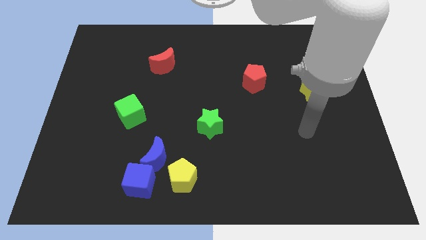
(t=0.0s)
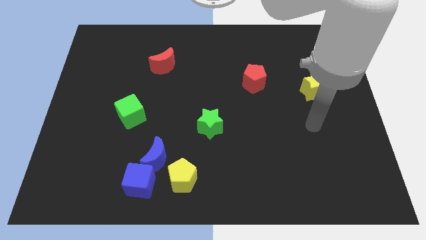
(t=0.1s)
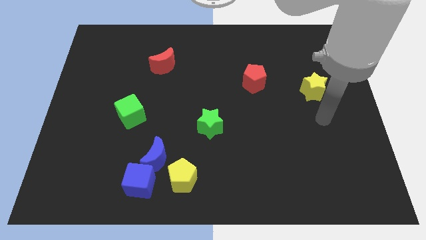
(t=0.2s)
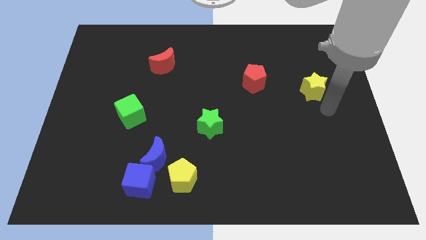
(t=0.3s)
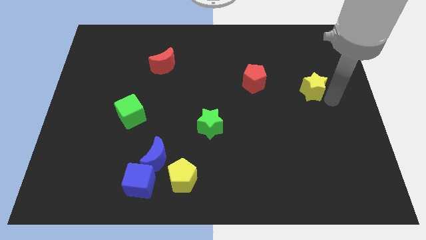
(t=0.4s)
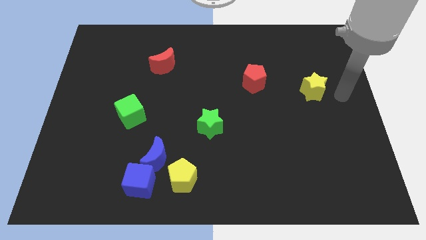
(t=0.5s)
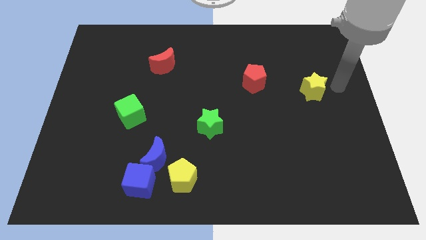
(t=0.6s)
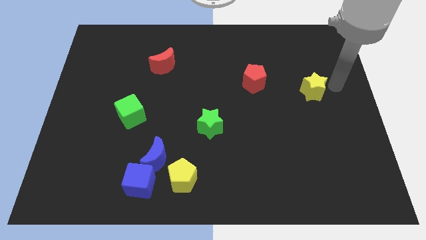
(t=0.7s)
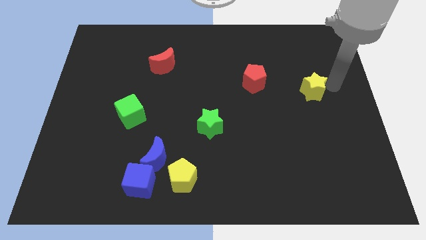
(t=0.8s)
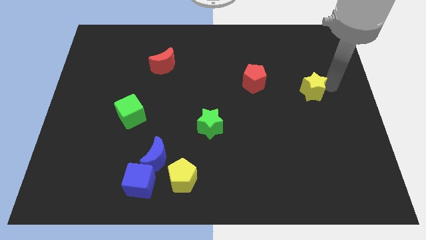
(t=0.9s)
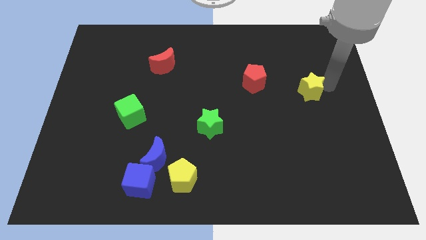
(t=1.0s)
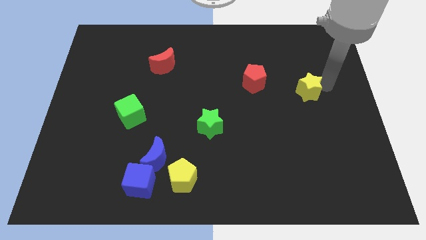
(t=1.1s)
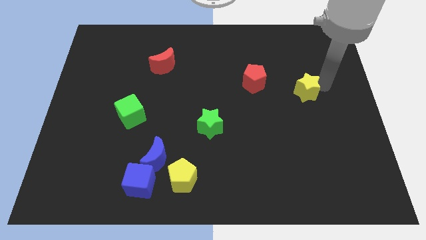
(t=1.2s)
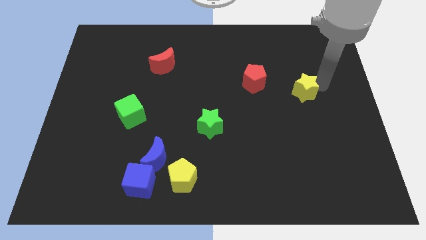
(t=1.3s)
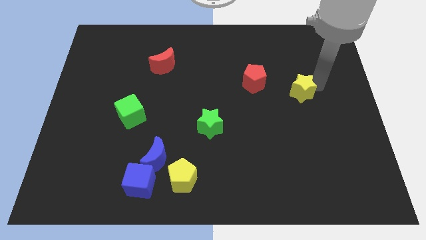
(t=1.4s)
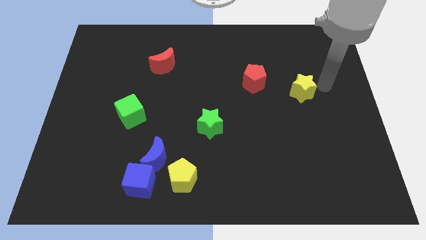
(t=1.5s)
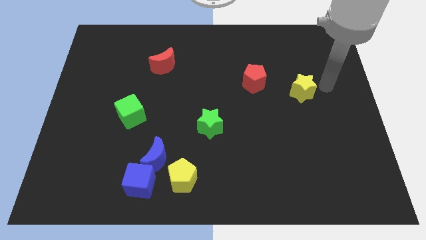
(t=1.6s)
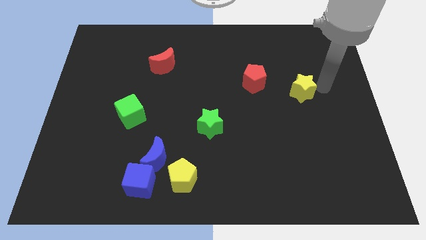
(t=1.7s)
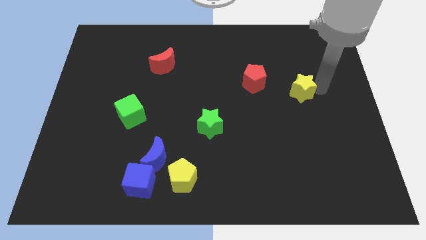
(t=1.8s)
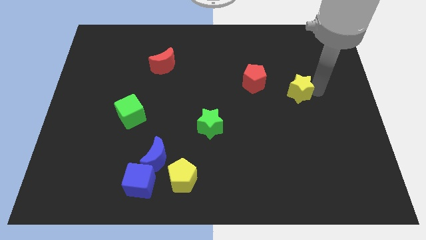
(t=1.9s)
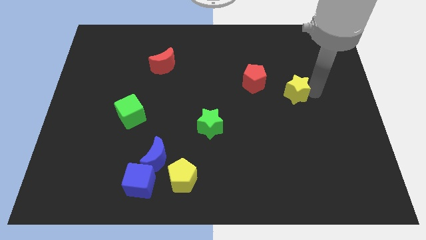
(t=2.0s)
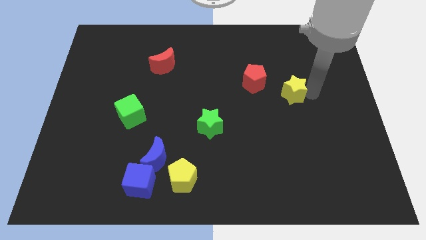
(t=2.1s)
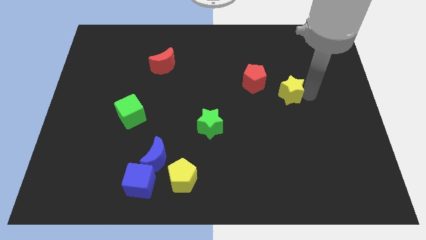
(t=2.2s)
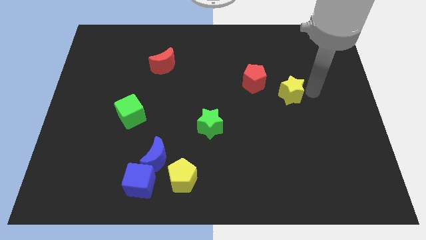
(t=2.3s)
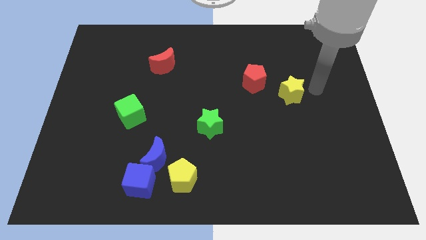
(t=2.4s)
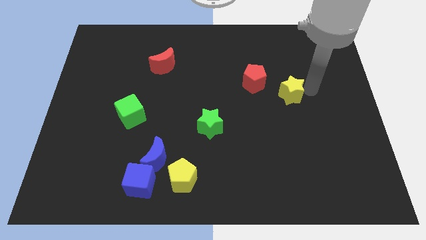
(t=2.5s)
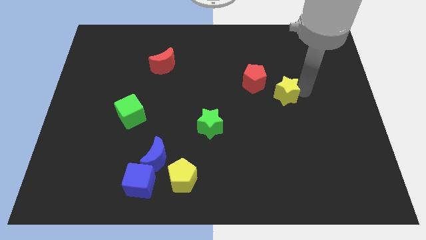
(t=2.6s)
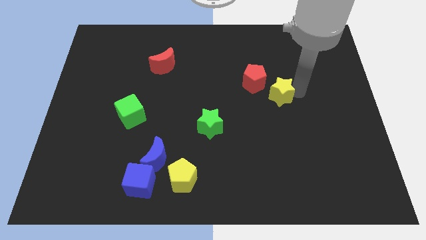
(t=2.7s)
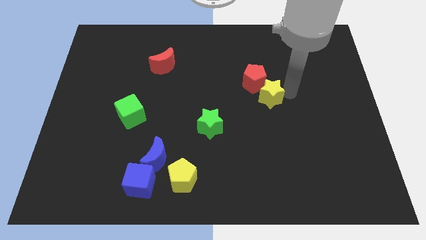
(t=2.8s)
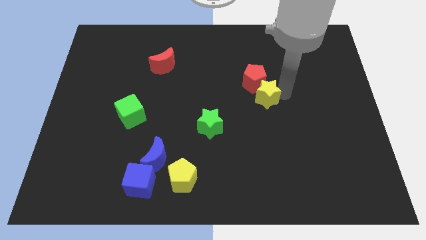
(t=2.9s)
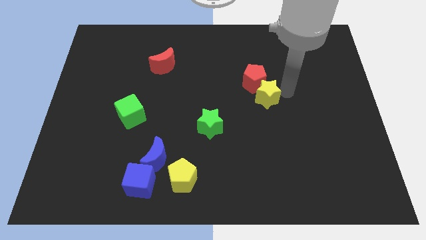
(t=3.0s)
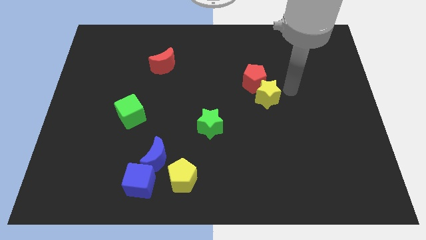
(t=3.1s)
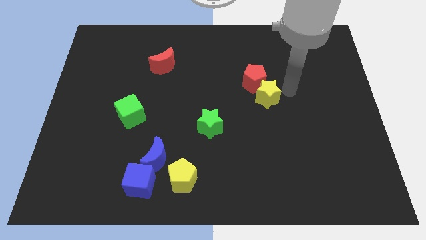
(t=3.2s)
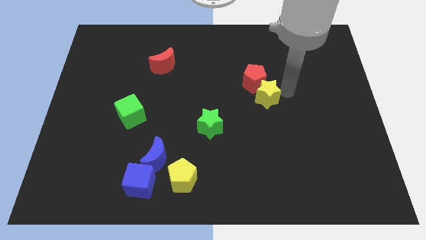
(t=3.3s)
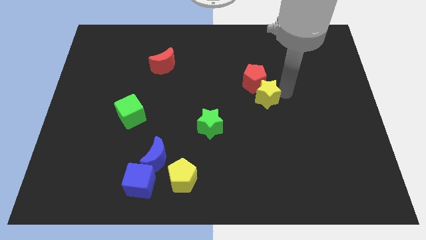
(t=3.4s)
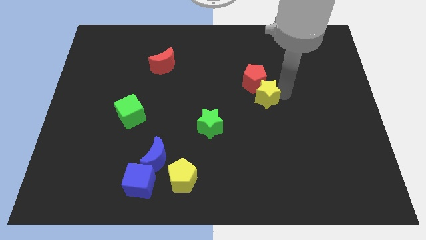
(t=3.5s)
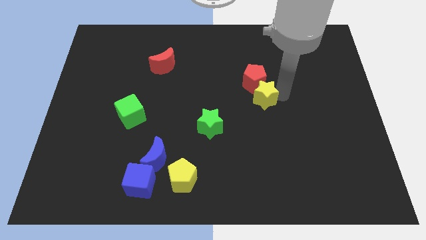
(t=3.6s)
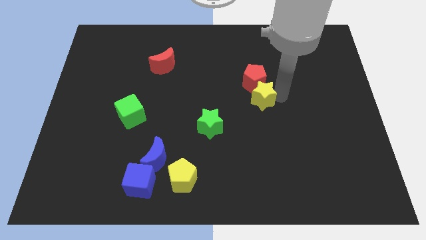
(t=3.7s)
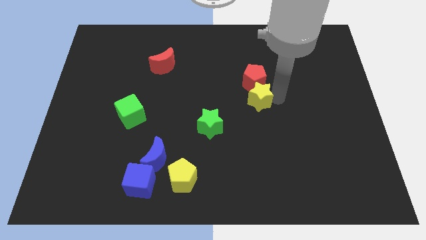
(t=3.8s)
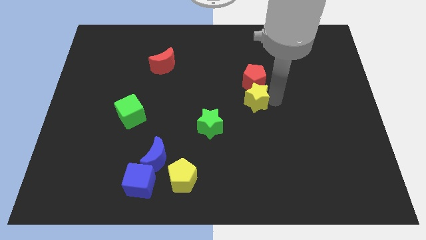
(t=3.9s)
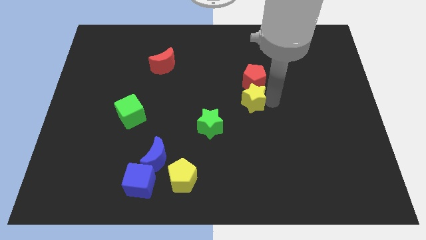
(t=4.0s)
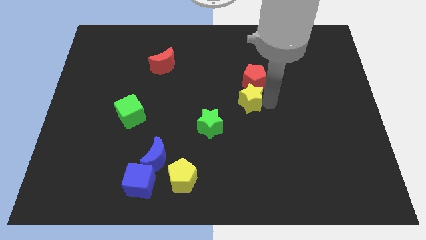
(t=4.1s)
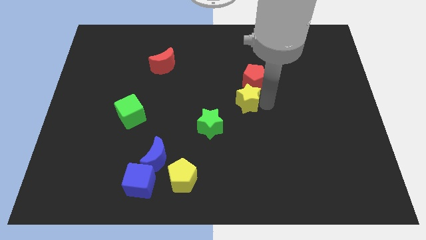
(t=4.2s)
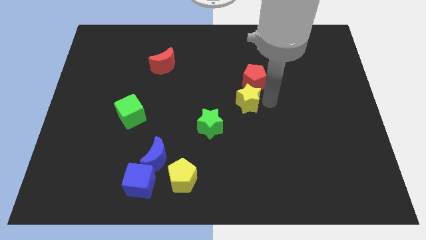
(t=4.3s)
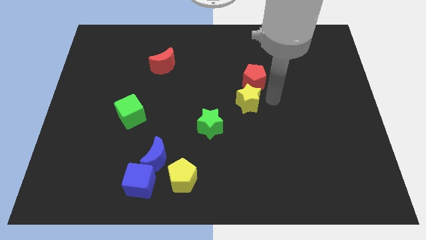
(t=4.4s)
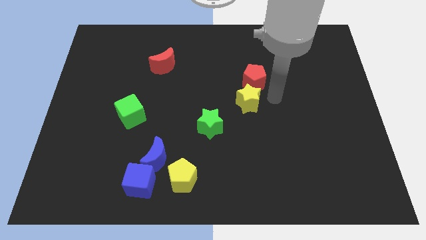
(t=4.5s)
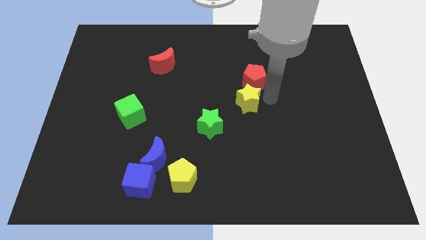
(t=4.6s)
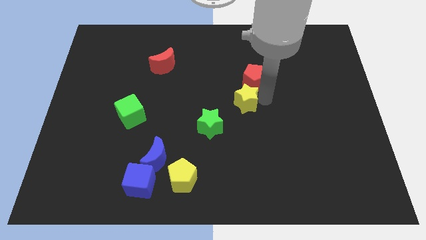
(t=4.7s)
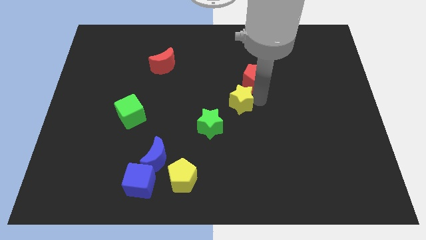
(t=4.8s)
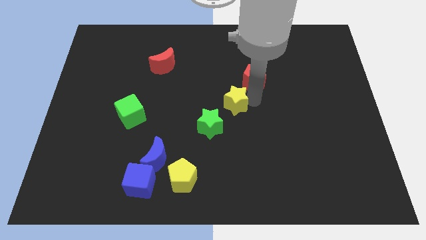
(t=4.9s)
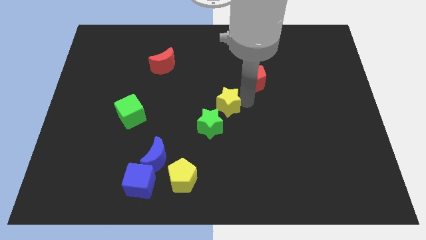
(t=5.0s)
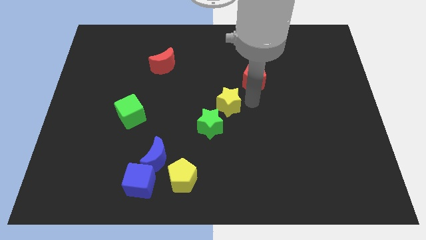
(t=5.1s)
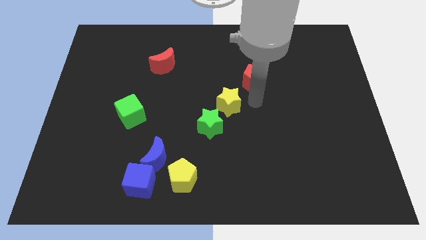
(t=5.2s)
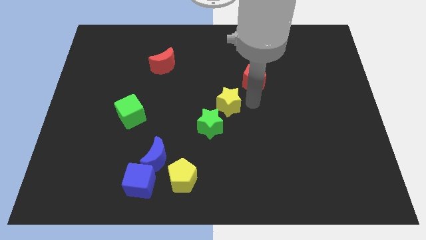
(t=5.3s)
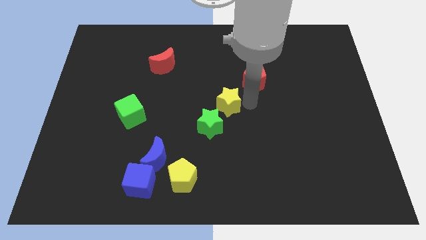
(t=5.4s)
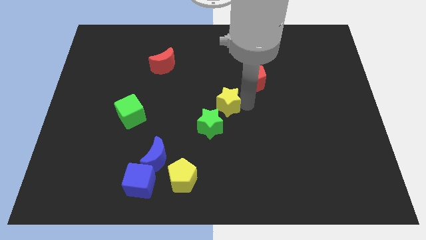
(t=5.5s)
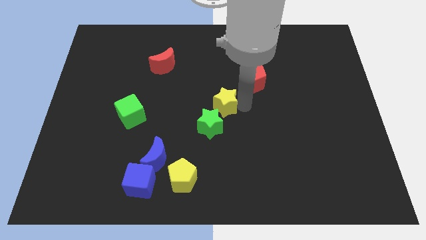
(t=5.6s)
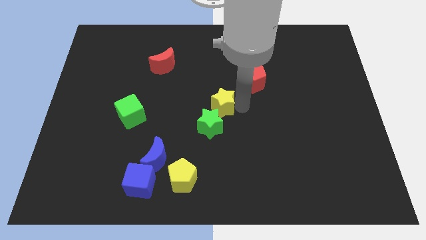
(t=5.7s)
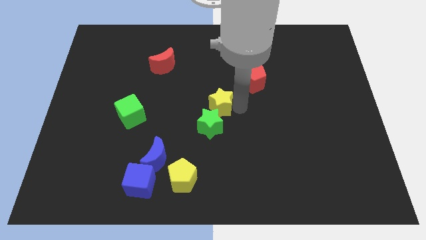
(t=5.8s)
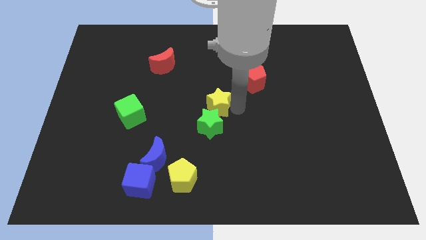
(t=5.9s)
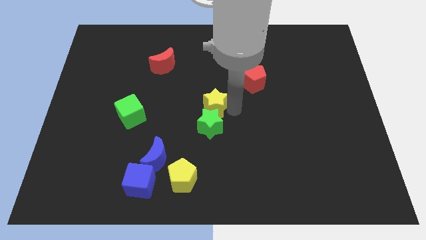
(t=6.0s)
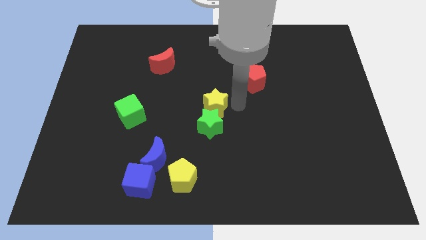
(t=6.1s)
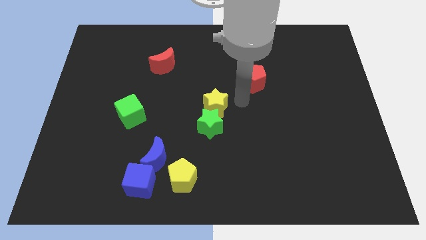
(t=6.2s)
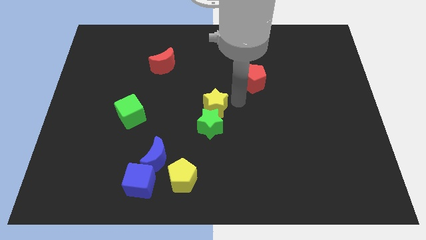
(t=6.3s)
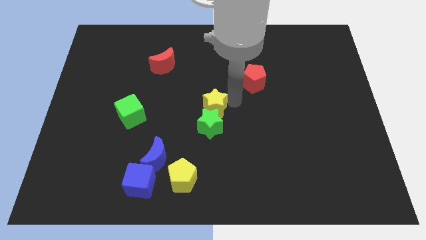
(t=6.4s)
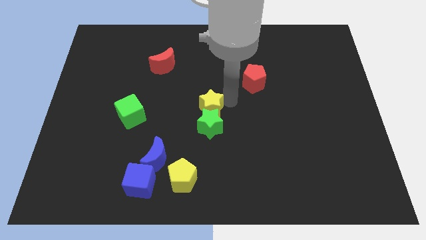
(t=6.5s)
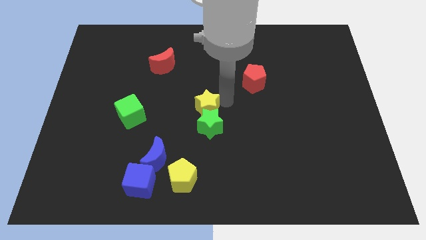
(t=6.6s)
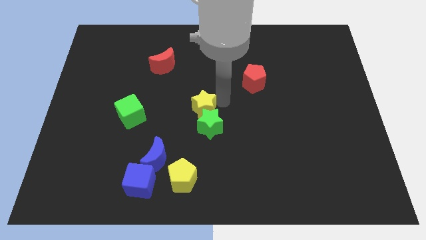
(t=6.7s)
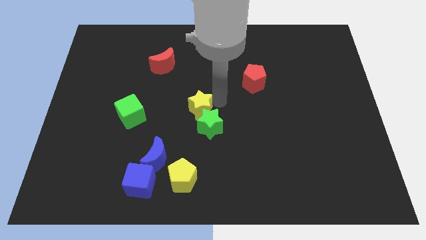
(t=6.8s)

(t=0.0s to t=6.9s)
put the yellow star just right of the green cube
